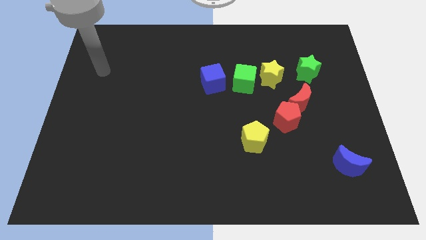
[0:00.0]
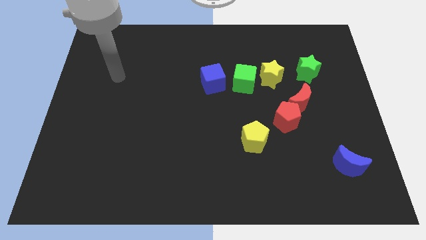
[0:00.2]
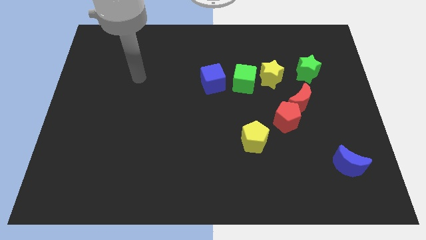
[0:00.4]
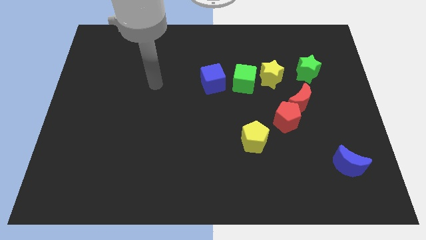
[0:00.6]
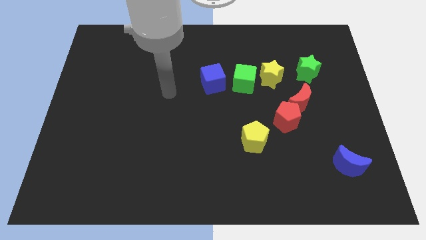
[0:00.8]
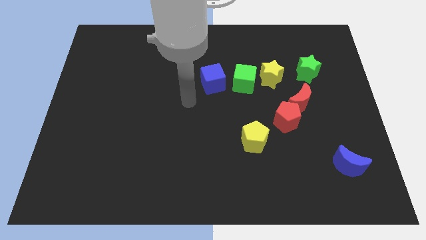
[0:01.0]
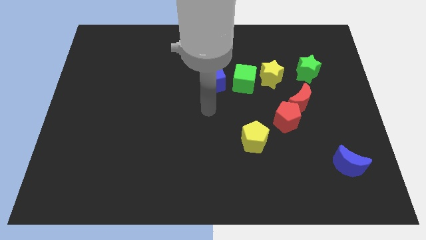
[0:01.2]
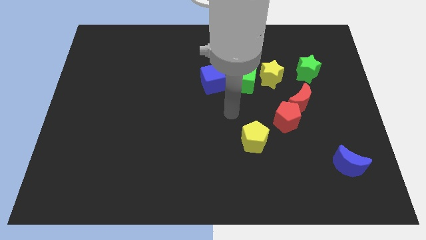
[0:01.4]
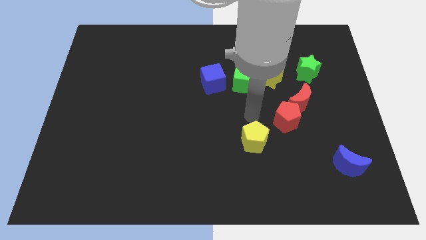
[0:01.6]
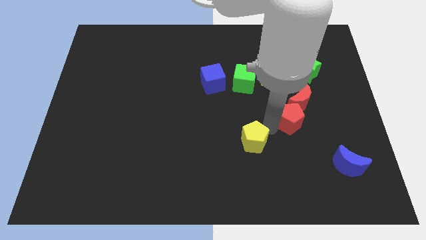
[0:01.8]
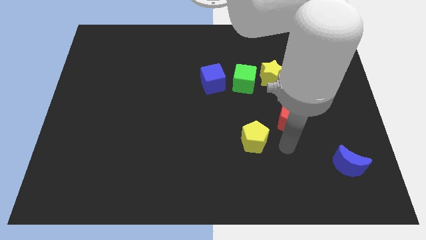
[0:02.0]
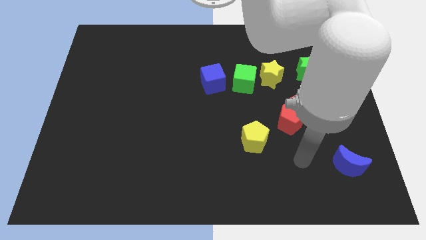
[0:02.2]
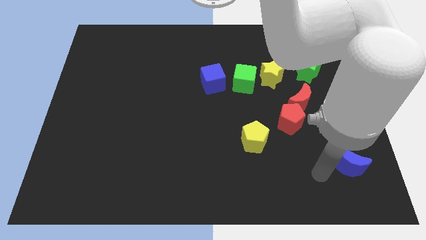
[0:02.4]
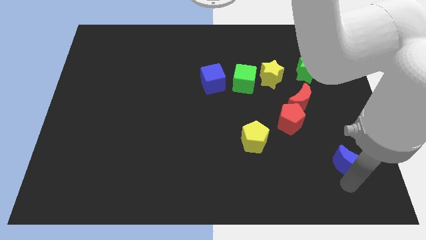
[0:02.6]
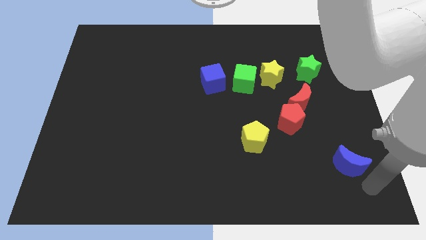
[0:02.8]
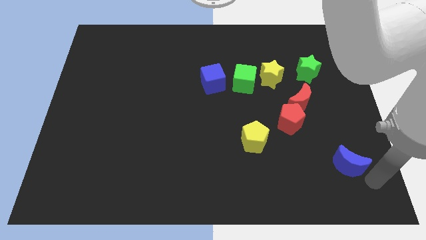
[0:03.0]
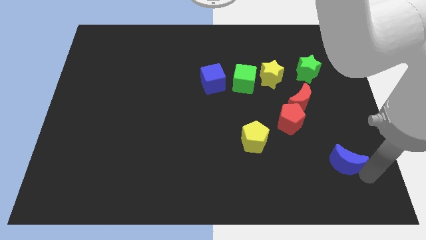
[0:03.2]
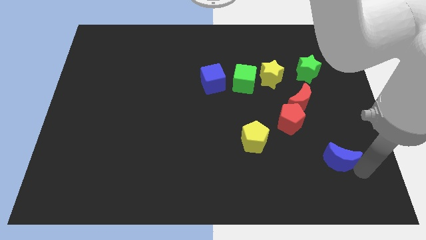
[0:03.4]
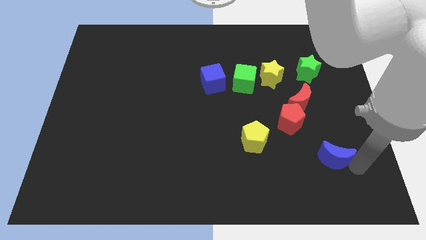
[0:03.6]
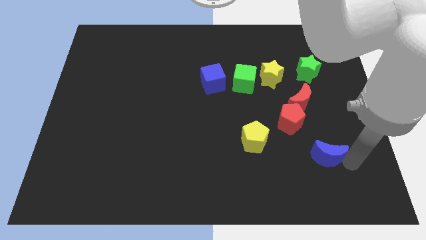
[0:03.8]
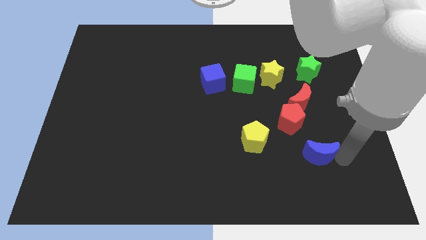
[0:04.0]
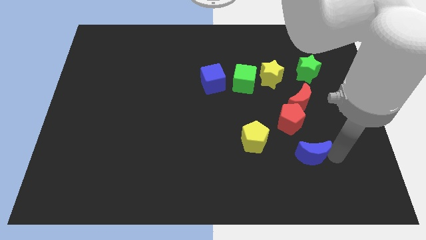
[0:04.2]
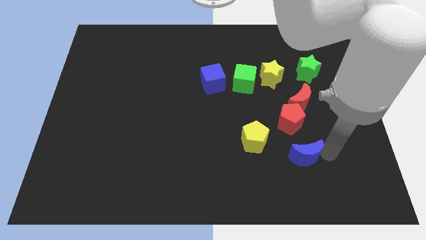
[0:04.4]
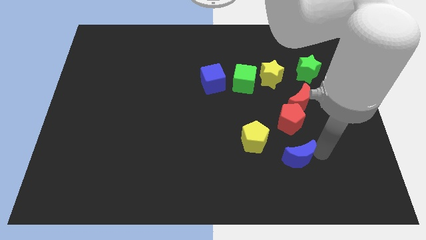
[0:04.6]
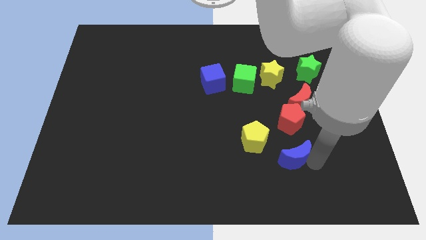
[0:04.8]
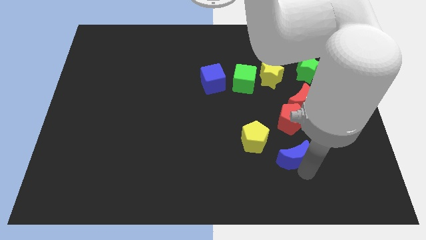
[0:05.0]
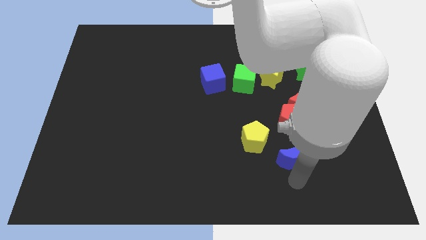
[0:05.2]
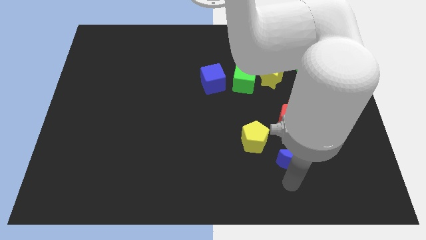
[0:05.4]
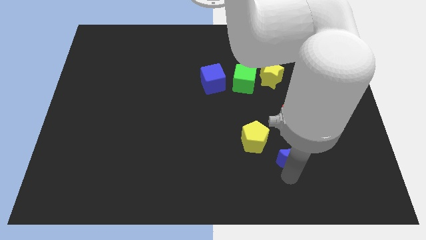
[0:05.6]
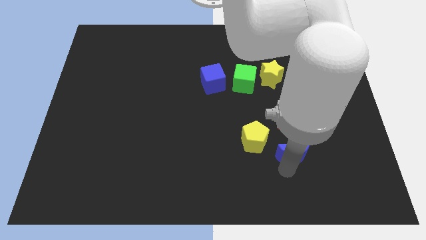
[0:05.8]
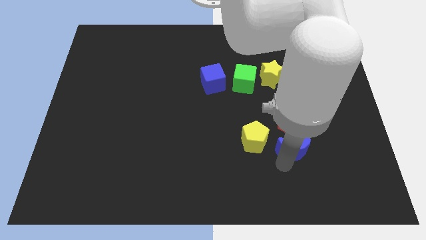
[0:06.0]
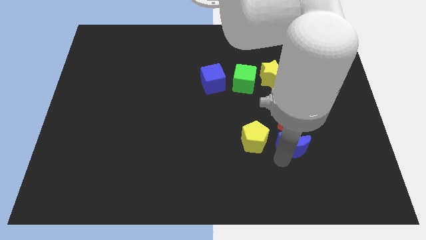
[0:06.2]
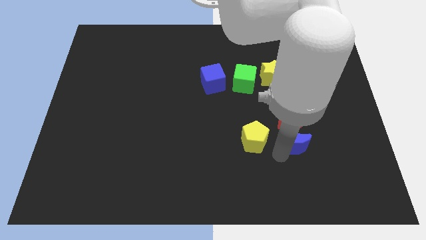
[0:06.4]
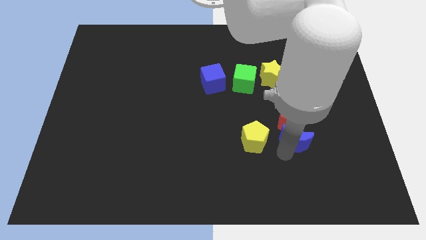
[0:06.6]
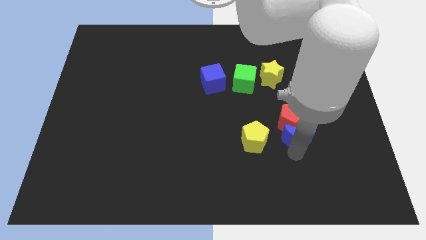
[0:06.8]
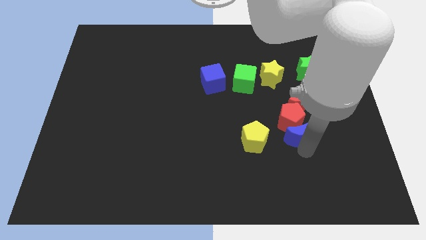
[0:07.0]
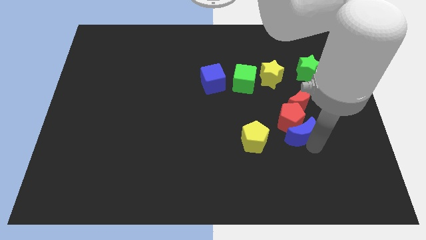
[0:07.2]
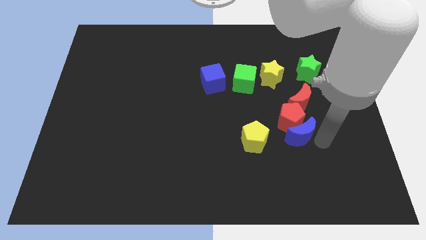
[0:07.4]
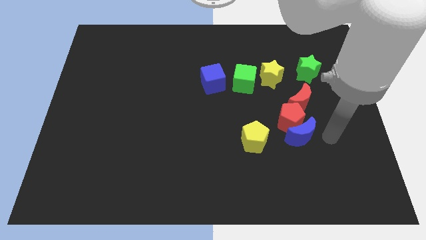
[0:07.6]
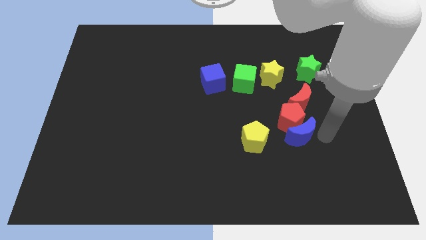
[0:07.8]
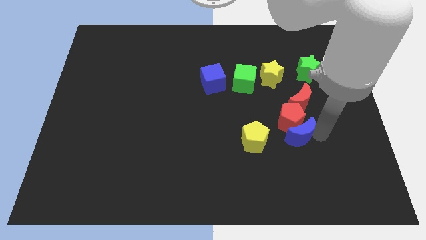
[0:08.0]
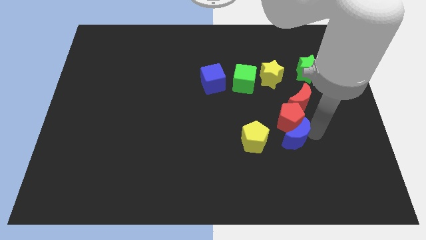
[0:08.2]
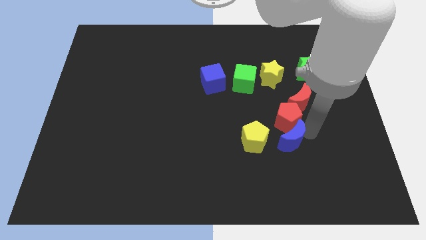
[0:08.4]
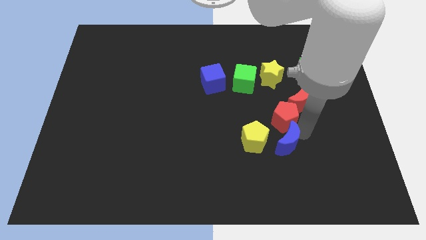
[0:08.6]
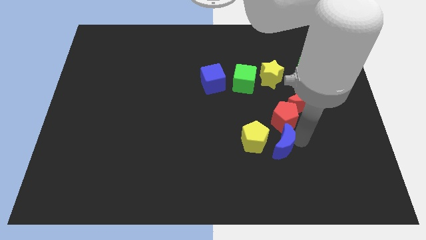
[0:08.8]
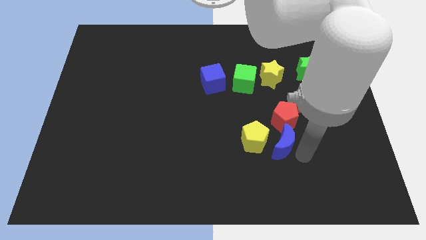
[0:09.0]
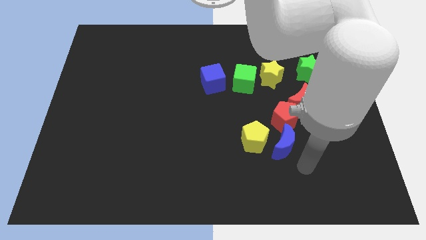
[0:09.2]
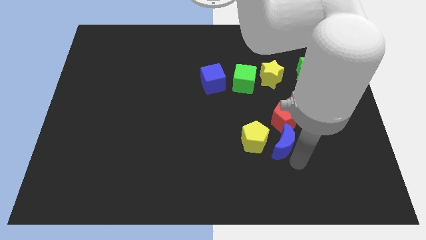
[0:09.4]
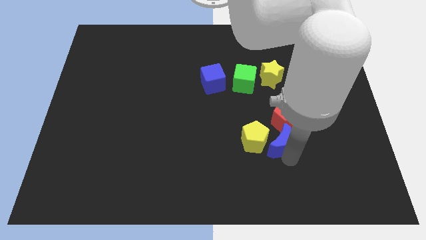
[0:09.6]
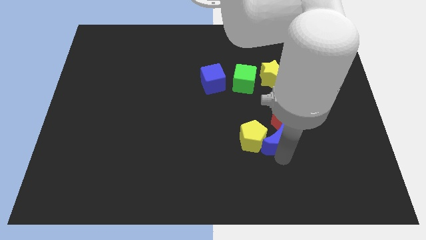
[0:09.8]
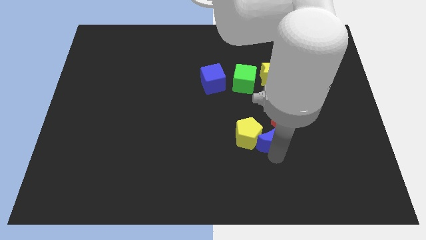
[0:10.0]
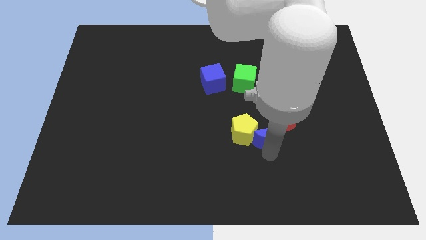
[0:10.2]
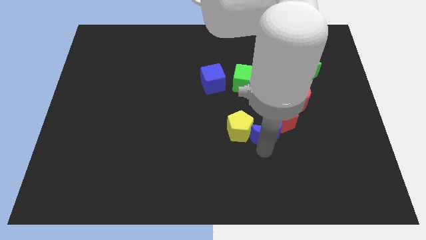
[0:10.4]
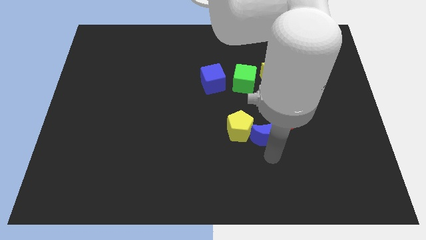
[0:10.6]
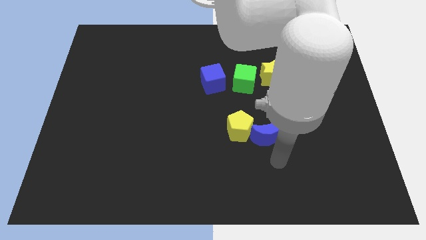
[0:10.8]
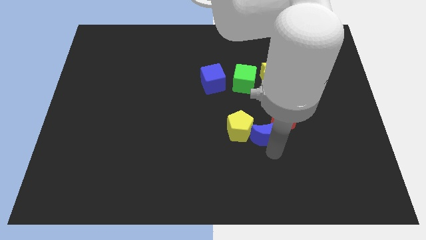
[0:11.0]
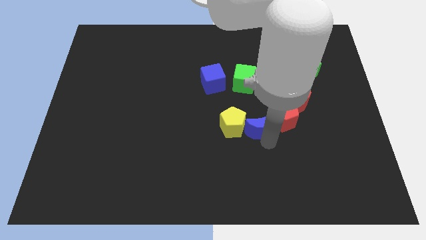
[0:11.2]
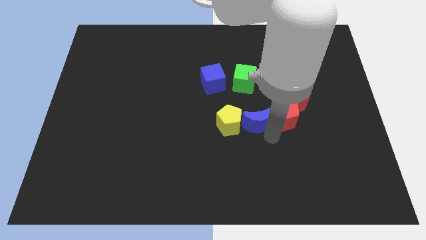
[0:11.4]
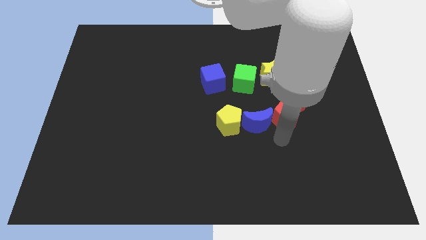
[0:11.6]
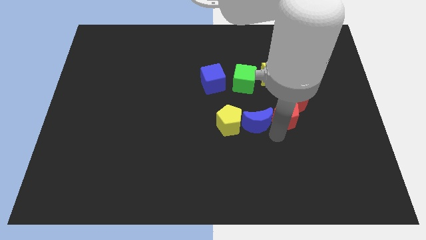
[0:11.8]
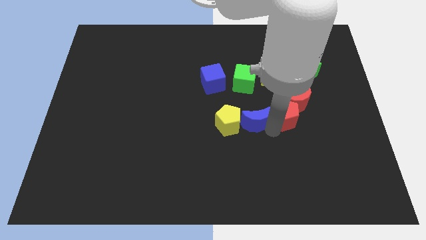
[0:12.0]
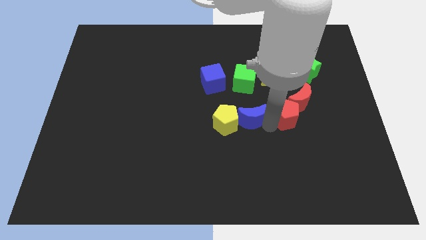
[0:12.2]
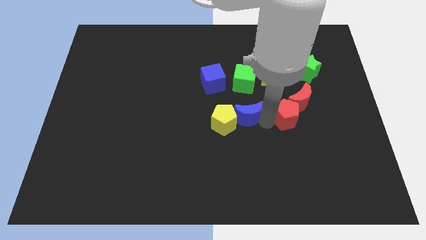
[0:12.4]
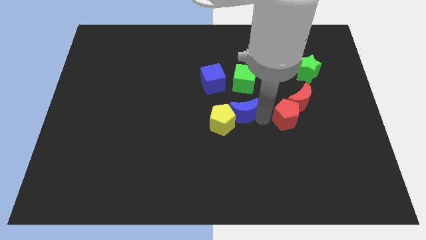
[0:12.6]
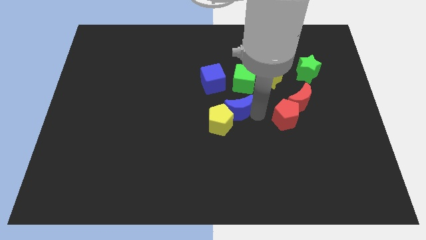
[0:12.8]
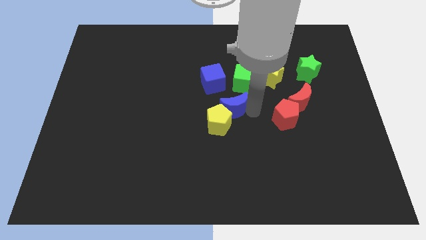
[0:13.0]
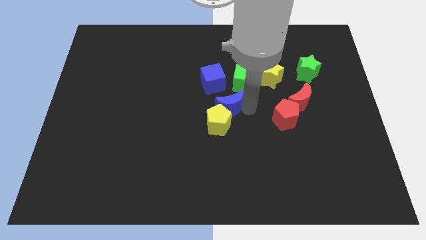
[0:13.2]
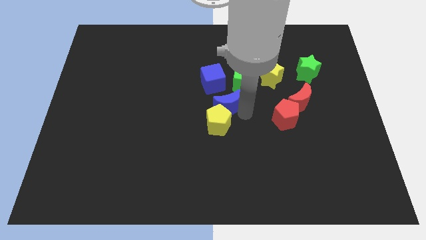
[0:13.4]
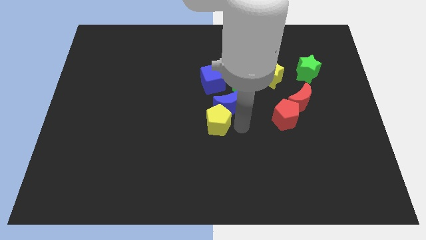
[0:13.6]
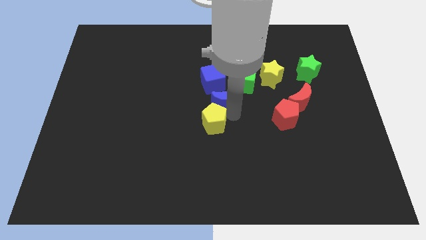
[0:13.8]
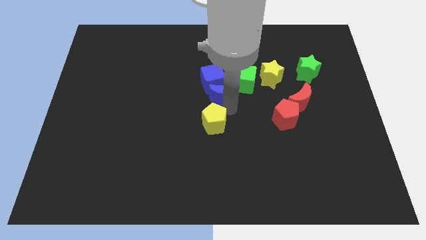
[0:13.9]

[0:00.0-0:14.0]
put the blue moon close to the blue cube
